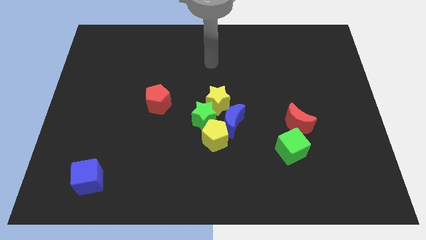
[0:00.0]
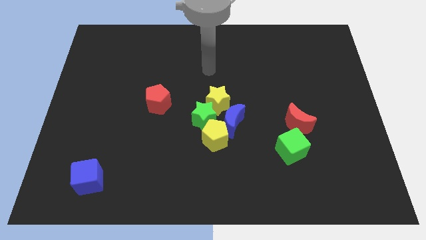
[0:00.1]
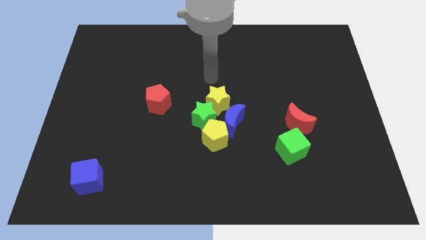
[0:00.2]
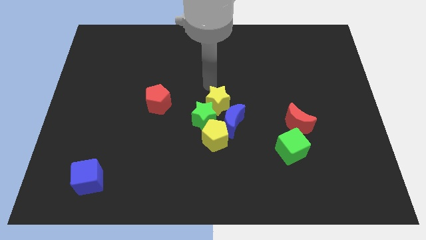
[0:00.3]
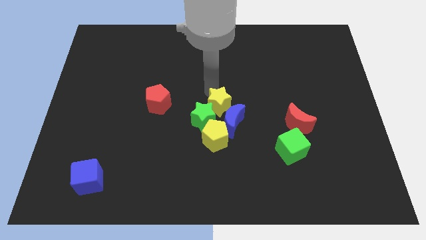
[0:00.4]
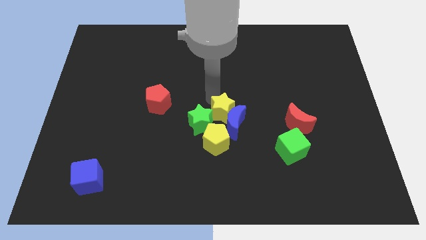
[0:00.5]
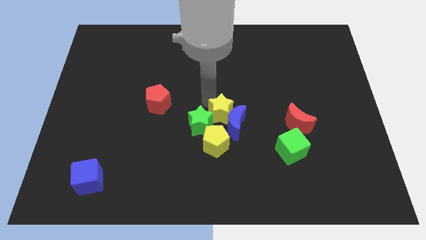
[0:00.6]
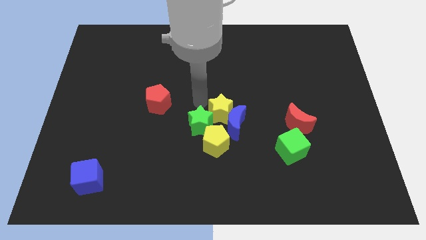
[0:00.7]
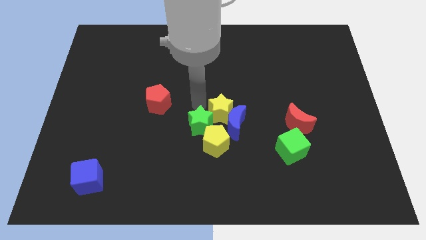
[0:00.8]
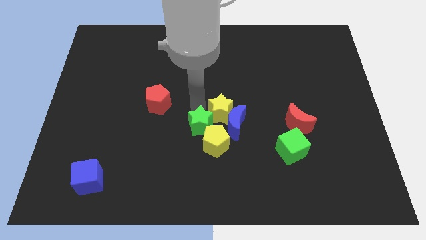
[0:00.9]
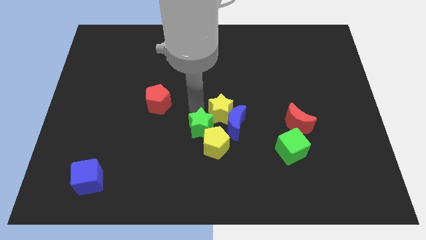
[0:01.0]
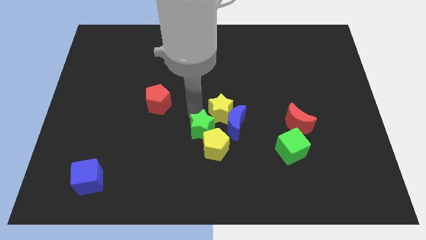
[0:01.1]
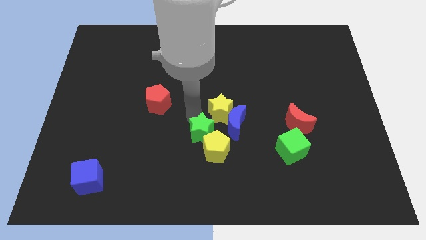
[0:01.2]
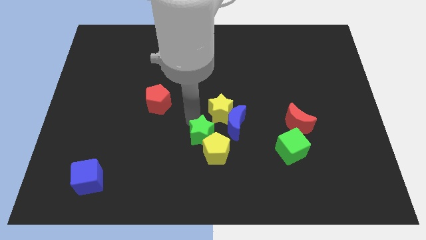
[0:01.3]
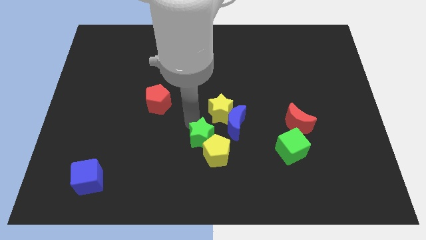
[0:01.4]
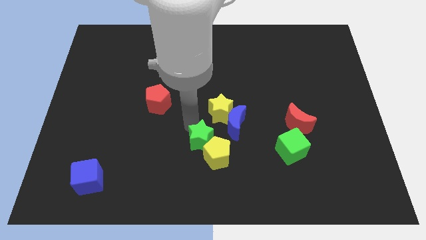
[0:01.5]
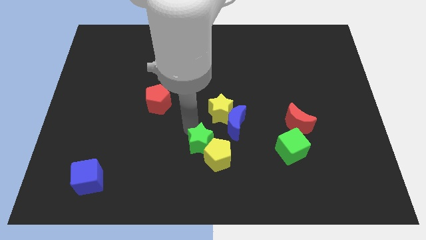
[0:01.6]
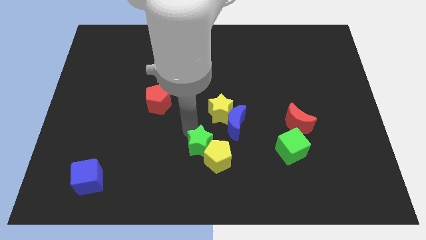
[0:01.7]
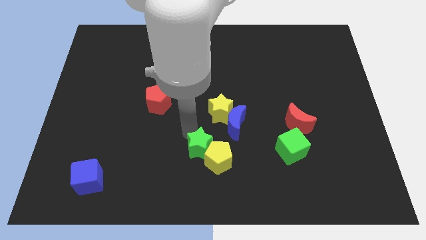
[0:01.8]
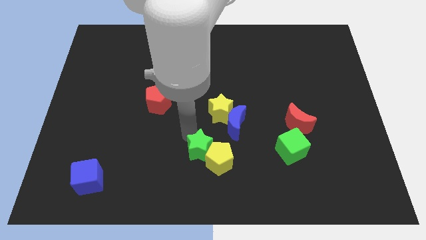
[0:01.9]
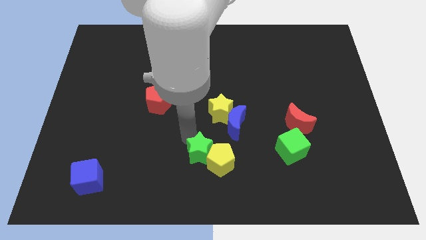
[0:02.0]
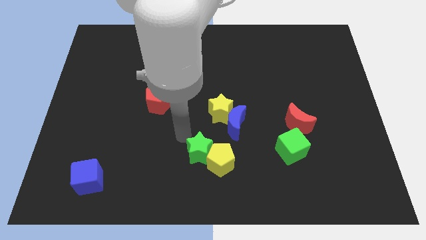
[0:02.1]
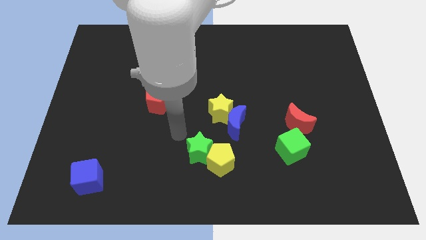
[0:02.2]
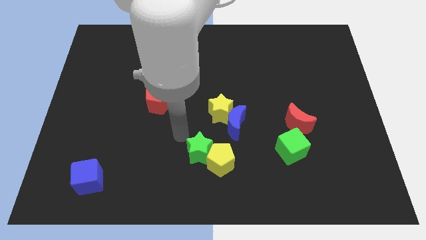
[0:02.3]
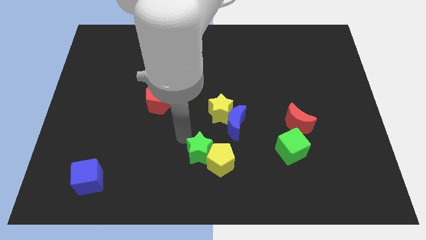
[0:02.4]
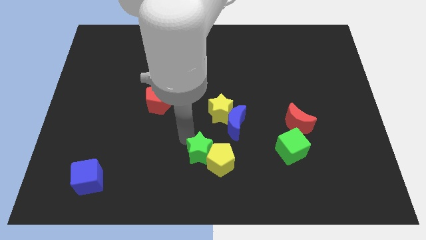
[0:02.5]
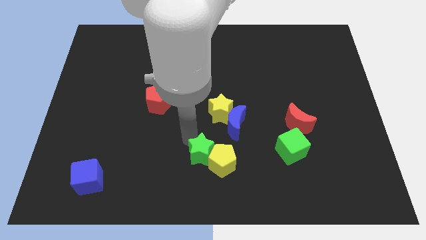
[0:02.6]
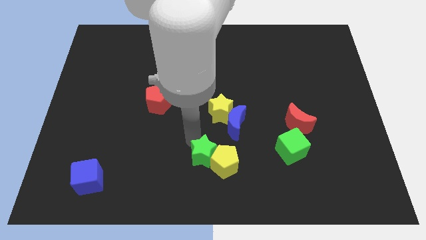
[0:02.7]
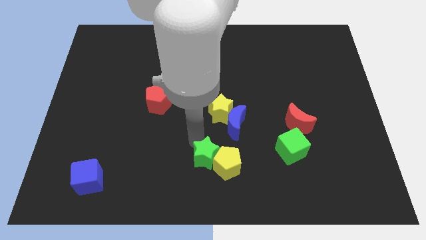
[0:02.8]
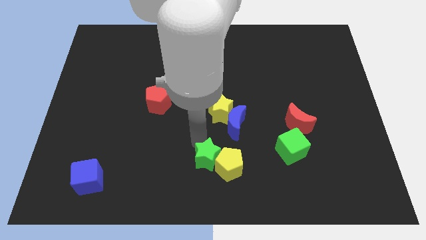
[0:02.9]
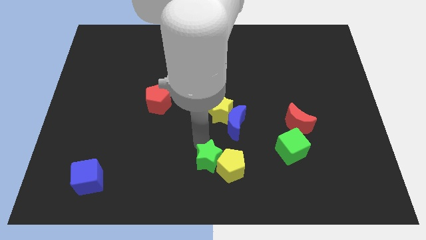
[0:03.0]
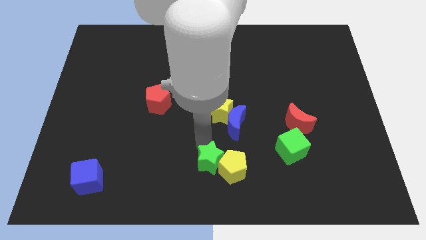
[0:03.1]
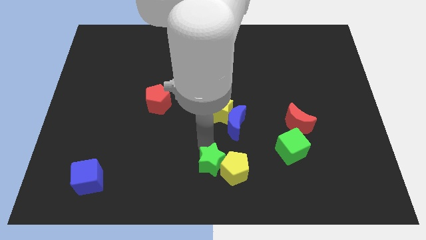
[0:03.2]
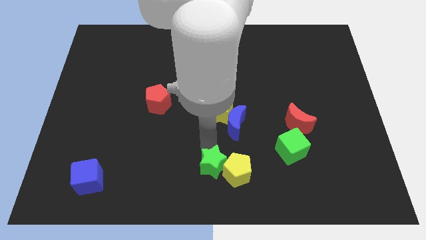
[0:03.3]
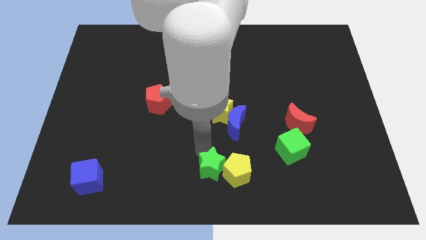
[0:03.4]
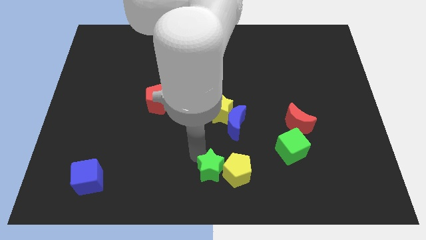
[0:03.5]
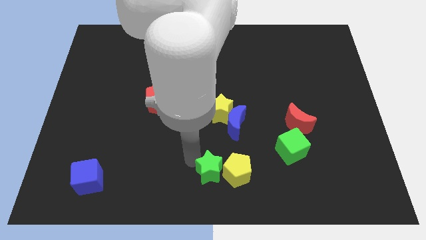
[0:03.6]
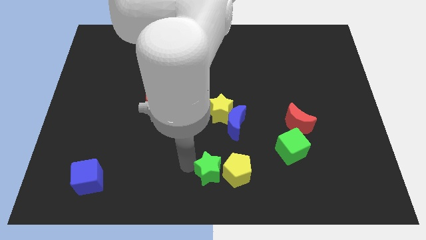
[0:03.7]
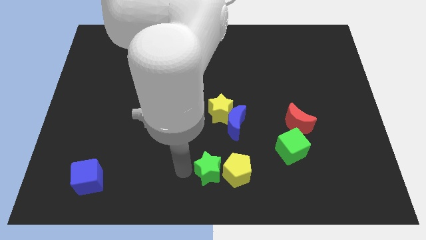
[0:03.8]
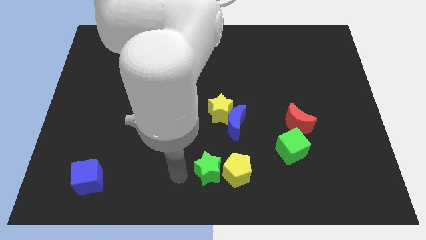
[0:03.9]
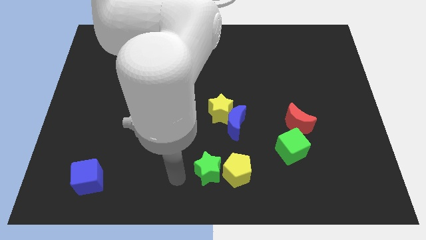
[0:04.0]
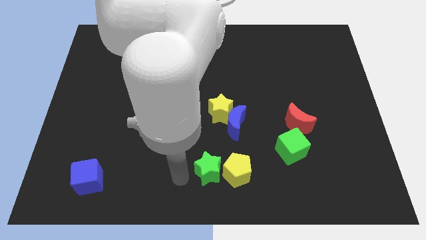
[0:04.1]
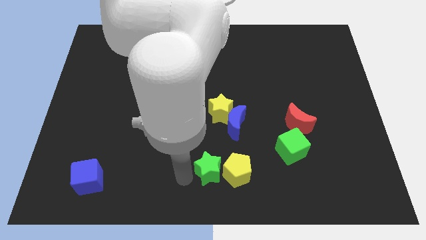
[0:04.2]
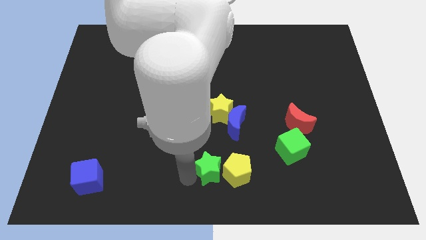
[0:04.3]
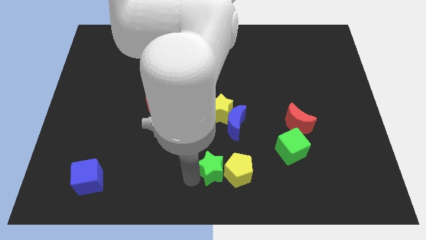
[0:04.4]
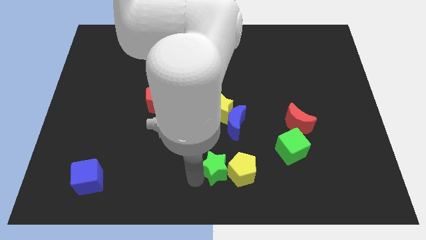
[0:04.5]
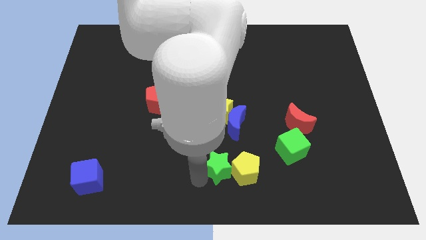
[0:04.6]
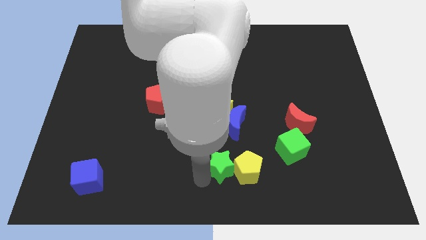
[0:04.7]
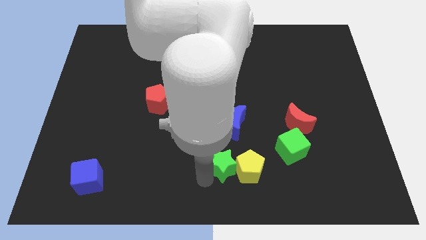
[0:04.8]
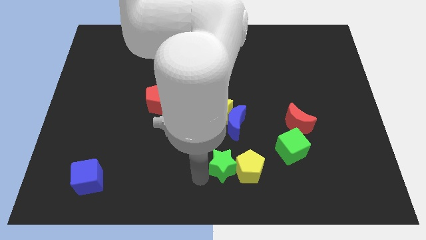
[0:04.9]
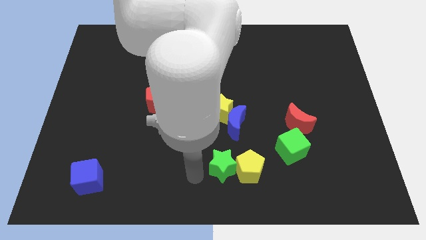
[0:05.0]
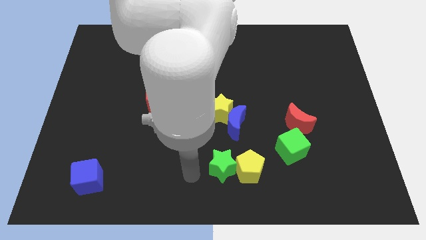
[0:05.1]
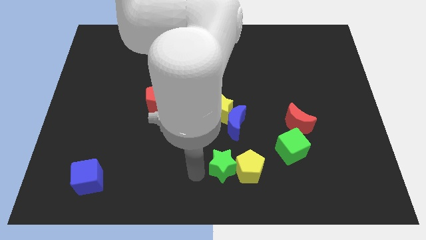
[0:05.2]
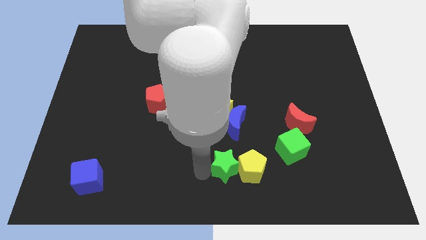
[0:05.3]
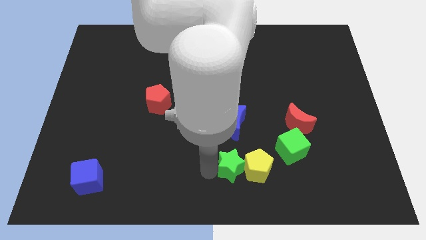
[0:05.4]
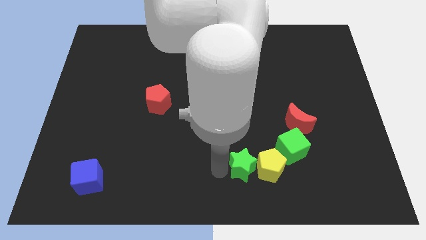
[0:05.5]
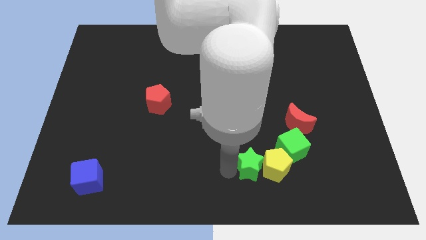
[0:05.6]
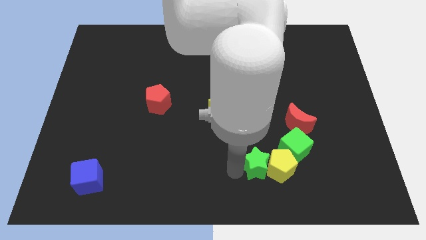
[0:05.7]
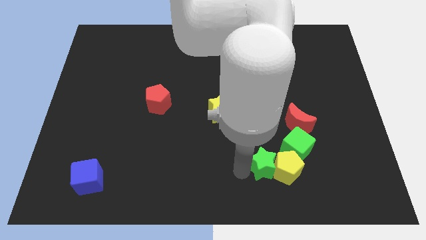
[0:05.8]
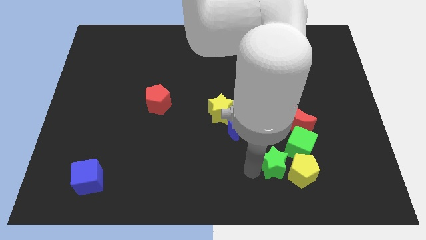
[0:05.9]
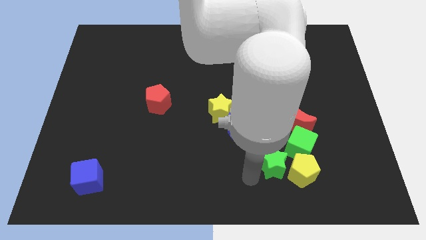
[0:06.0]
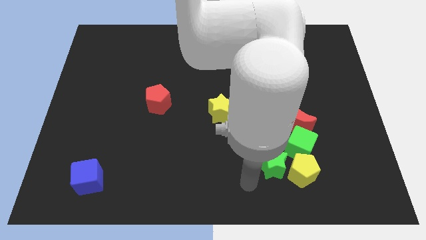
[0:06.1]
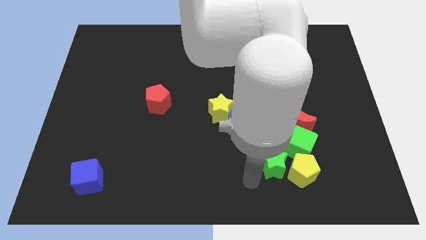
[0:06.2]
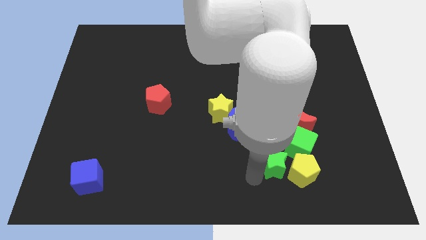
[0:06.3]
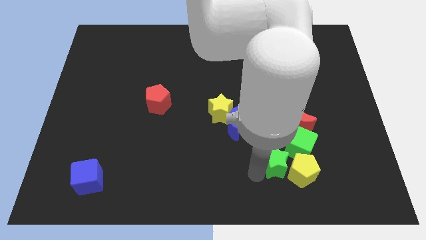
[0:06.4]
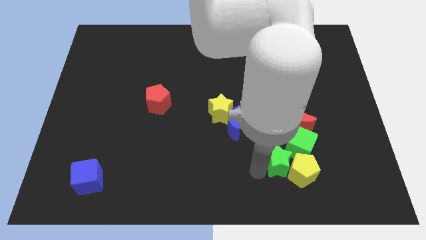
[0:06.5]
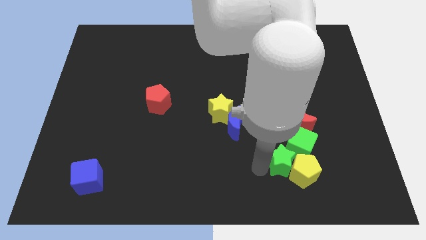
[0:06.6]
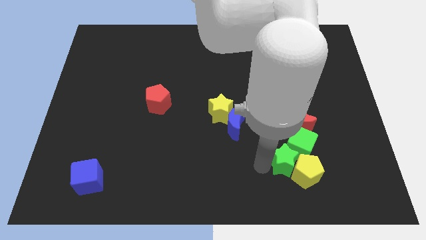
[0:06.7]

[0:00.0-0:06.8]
put the green star close to the green cube

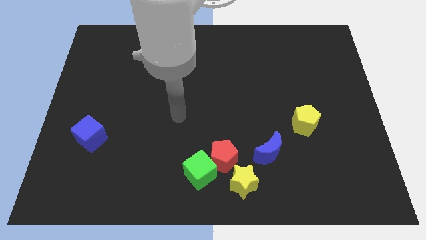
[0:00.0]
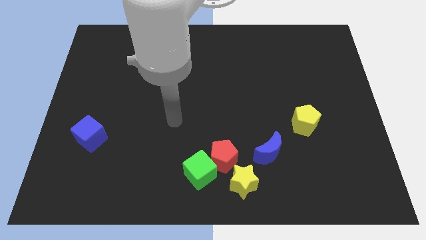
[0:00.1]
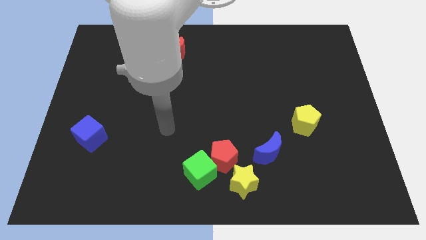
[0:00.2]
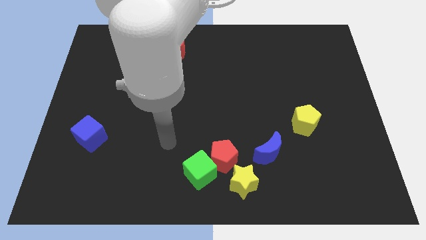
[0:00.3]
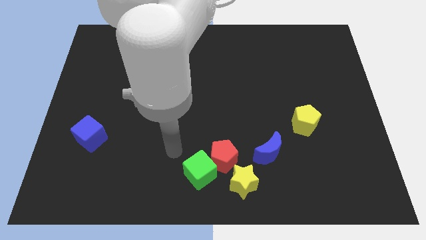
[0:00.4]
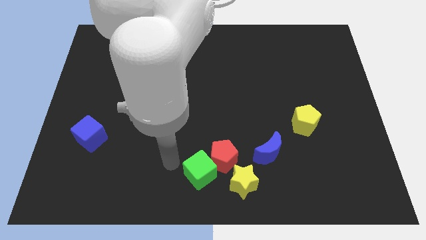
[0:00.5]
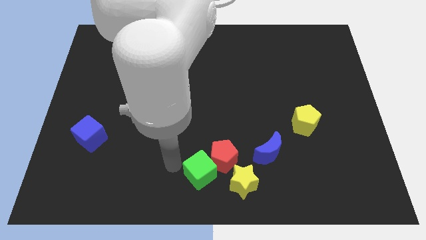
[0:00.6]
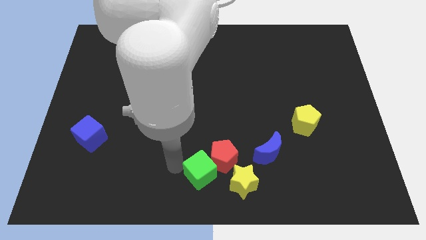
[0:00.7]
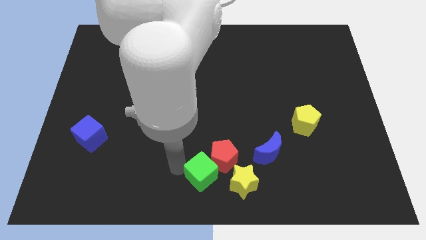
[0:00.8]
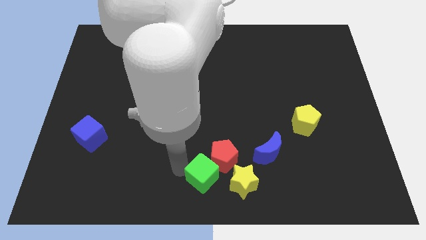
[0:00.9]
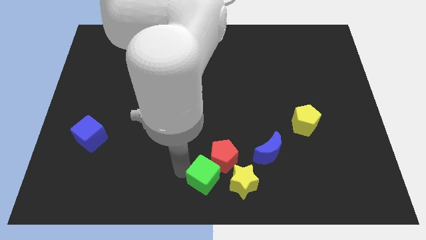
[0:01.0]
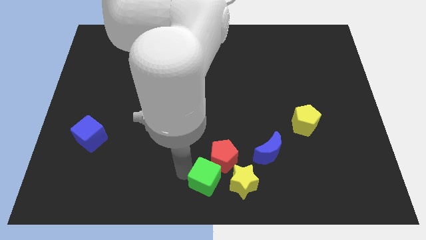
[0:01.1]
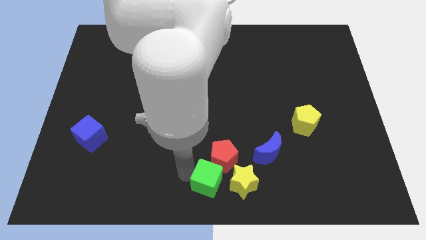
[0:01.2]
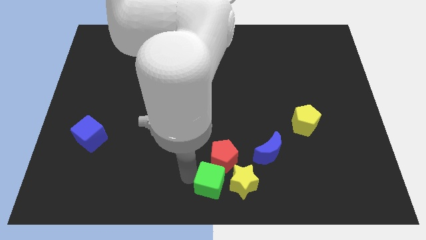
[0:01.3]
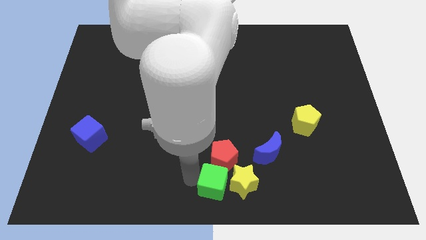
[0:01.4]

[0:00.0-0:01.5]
push the green cube towards the yellow star
